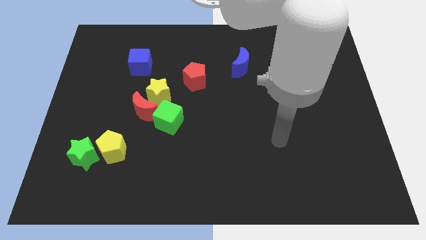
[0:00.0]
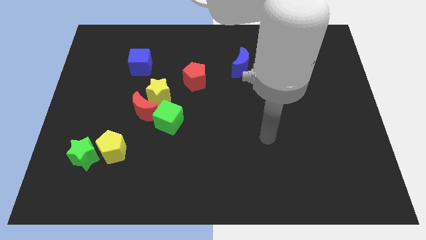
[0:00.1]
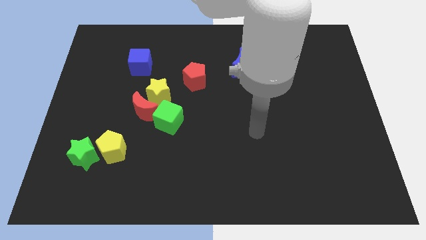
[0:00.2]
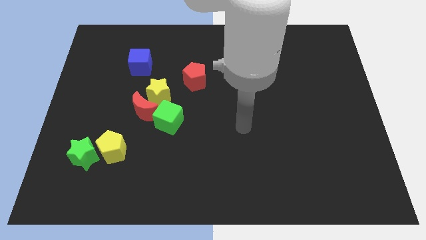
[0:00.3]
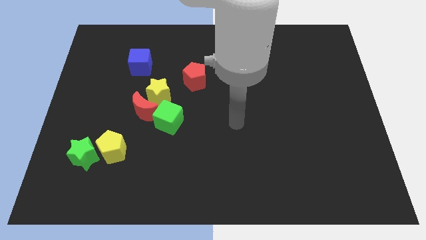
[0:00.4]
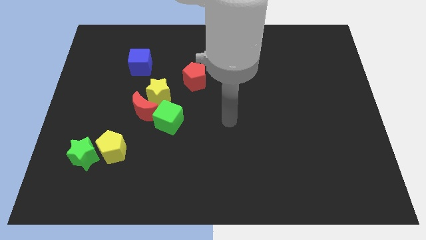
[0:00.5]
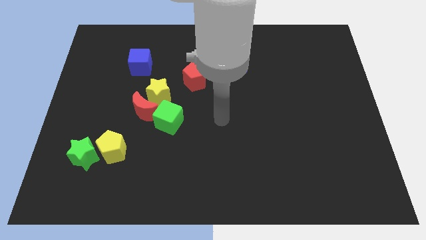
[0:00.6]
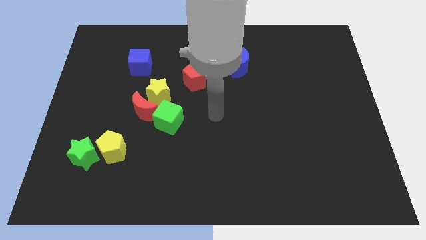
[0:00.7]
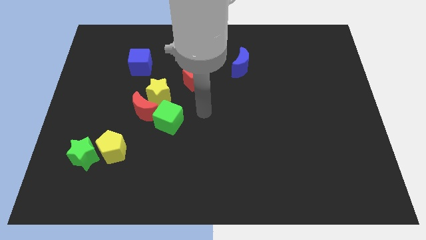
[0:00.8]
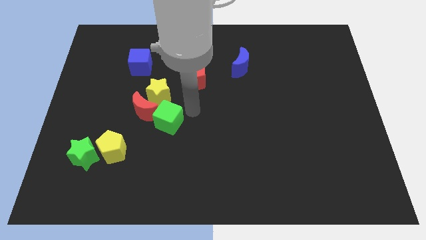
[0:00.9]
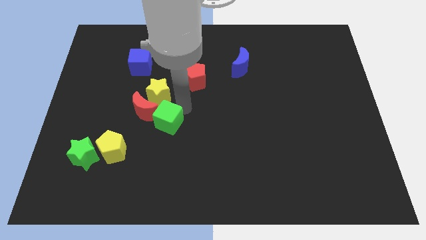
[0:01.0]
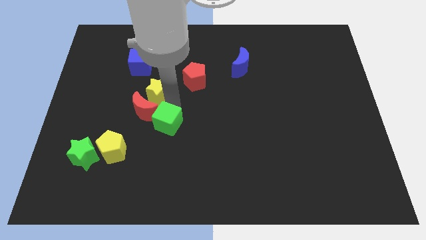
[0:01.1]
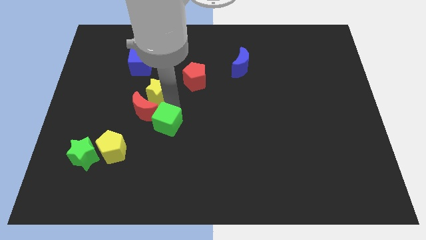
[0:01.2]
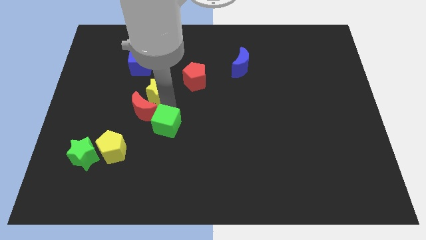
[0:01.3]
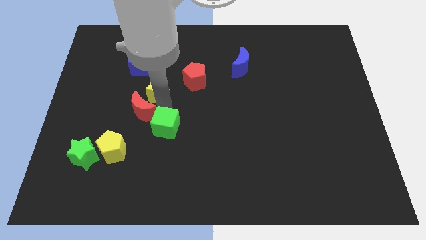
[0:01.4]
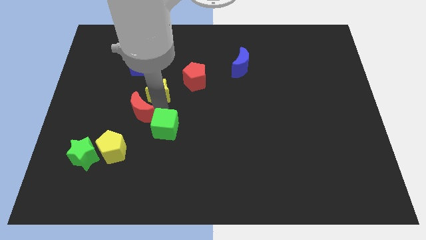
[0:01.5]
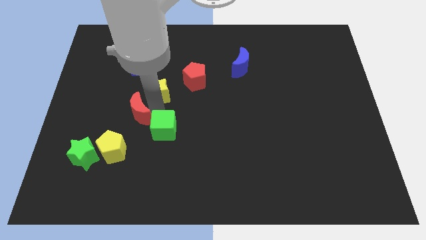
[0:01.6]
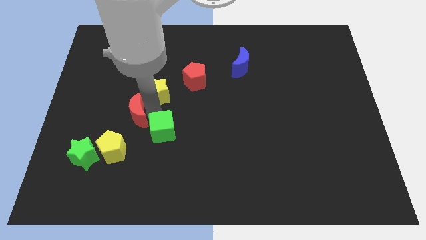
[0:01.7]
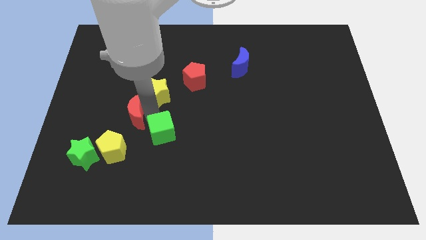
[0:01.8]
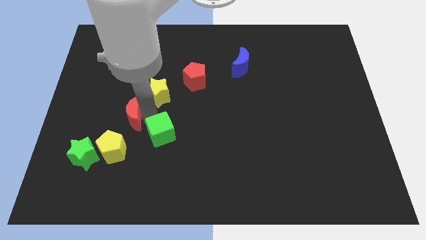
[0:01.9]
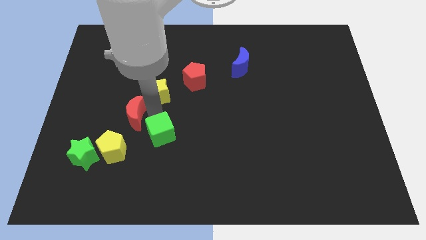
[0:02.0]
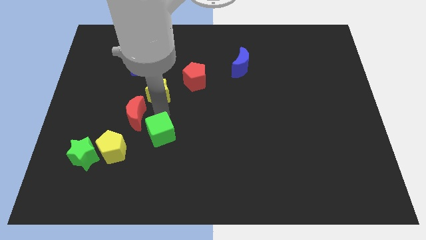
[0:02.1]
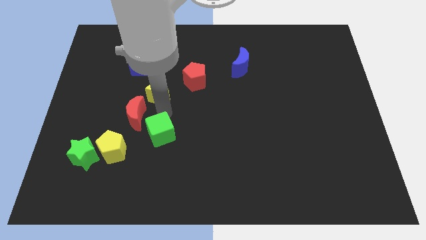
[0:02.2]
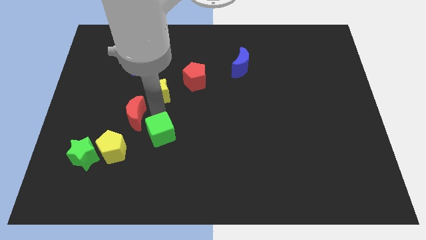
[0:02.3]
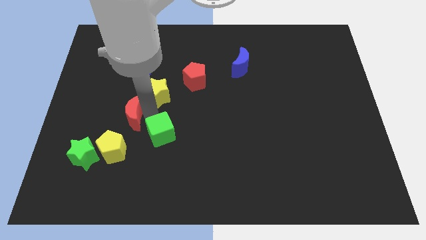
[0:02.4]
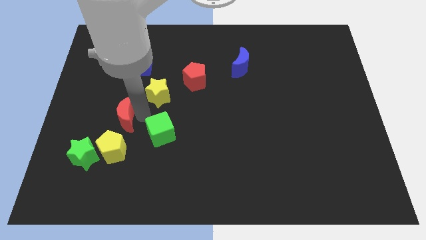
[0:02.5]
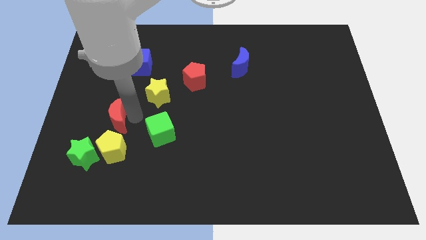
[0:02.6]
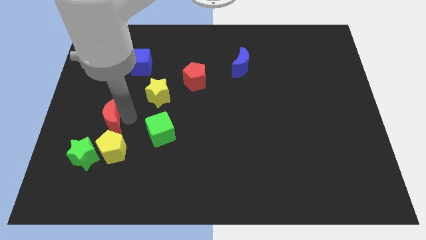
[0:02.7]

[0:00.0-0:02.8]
pull the red moon apart from the yellow star and green cube

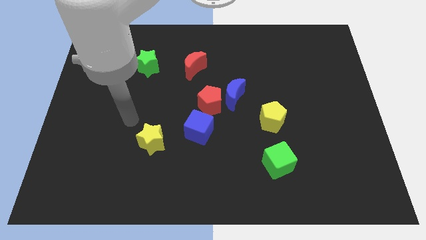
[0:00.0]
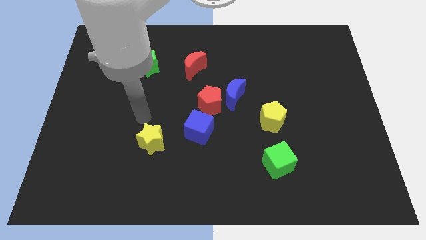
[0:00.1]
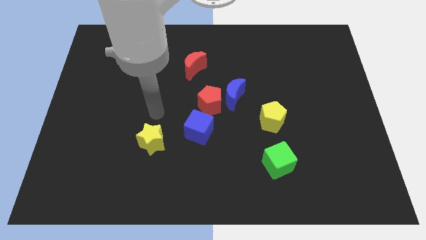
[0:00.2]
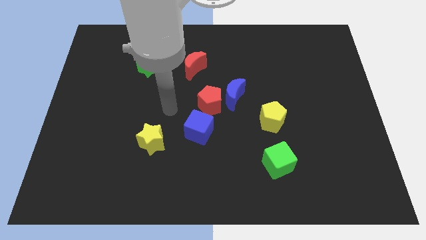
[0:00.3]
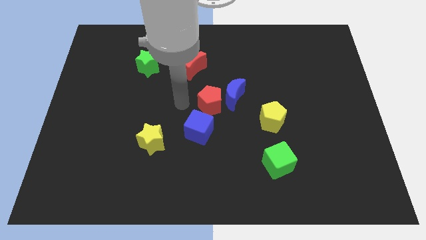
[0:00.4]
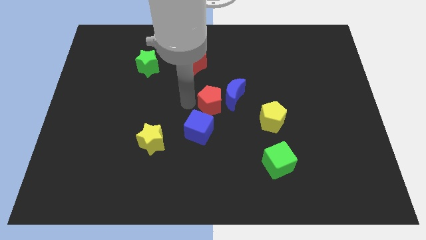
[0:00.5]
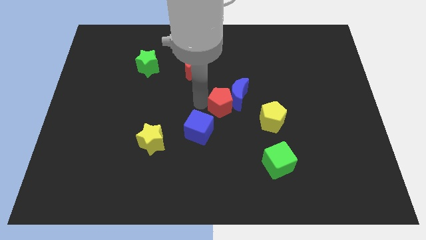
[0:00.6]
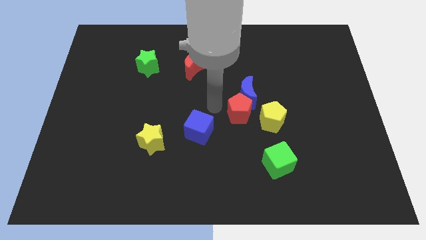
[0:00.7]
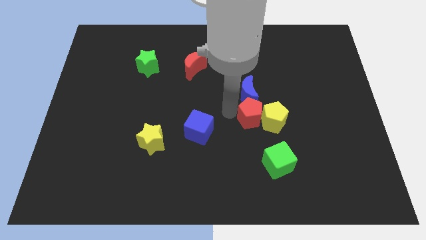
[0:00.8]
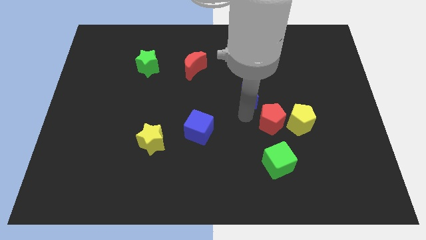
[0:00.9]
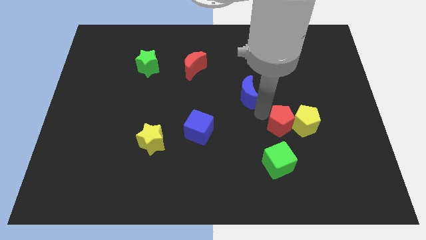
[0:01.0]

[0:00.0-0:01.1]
separate the blue moon from the red pentagon

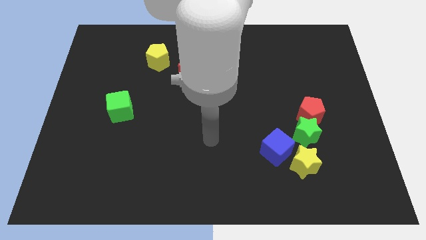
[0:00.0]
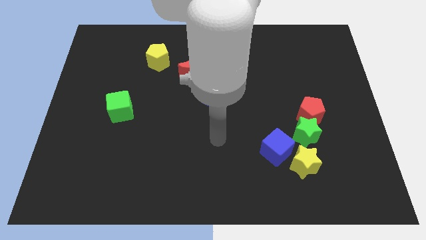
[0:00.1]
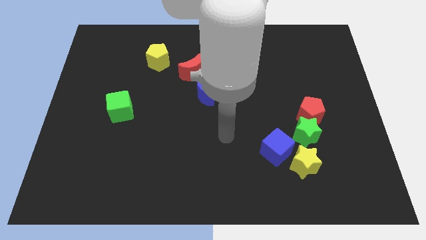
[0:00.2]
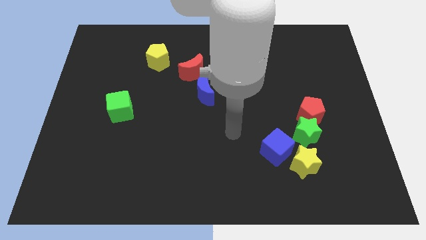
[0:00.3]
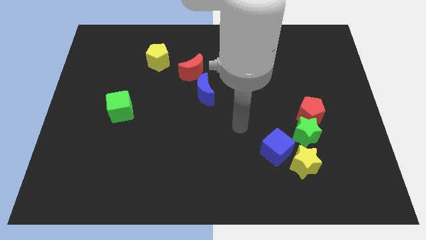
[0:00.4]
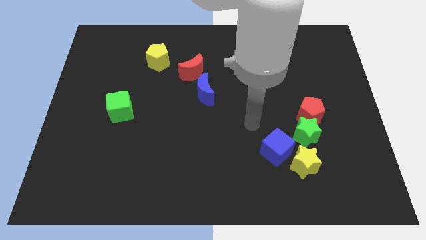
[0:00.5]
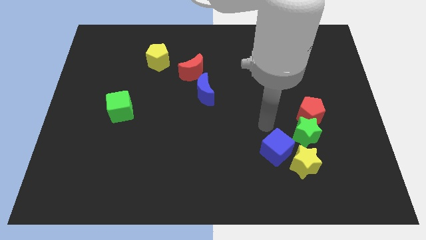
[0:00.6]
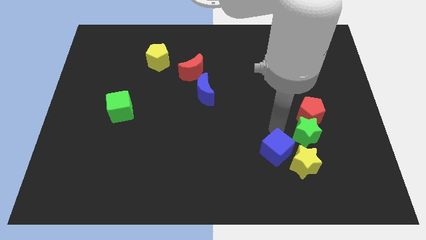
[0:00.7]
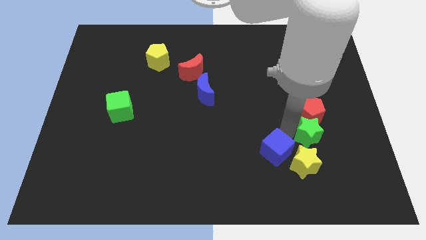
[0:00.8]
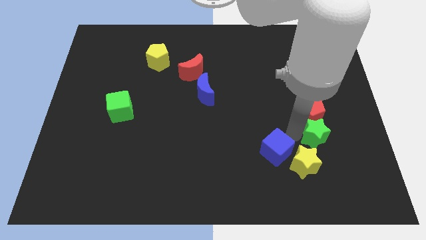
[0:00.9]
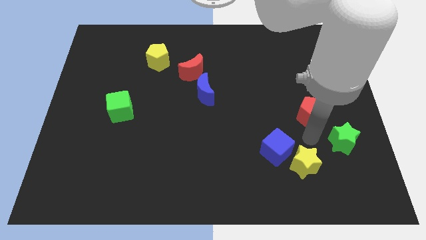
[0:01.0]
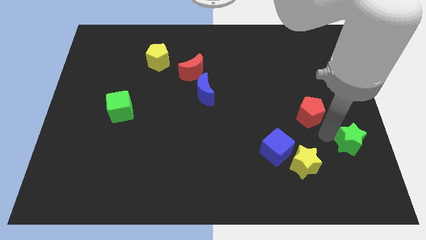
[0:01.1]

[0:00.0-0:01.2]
pull the red pentagon apart from the green star

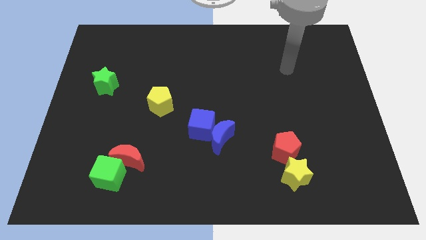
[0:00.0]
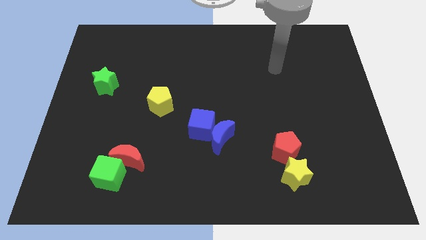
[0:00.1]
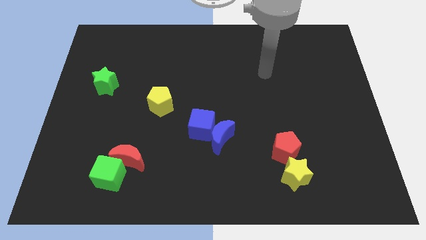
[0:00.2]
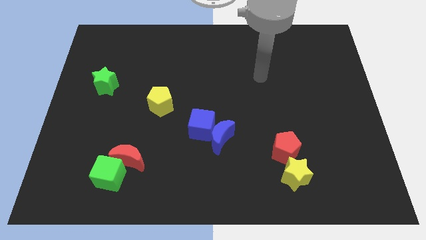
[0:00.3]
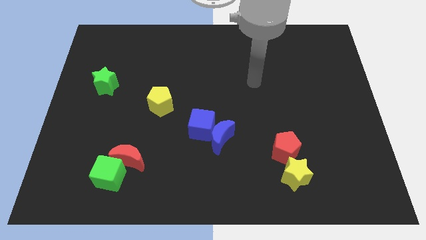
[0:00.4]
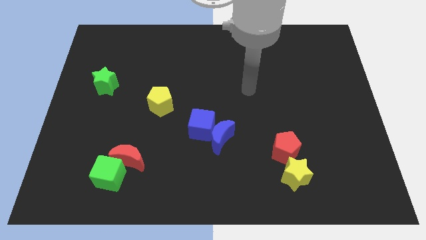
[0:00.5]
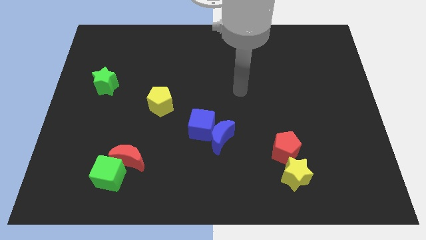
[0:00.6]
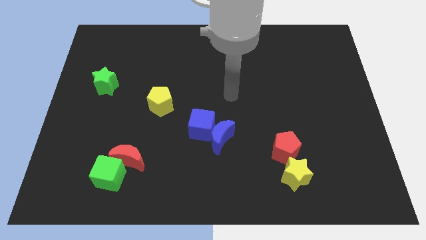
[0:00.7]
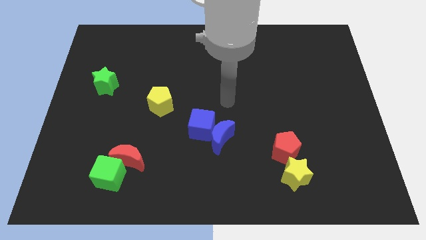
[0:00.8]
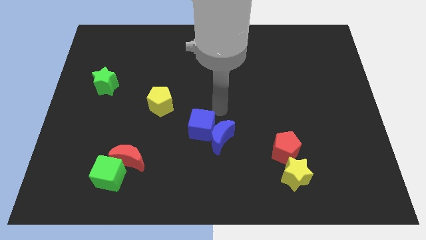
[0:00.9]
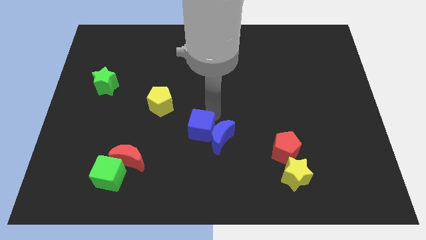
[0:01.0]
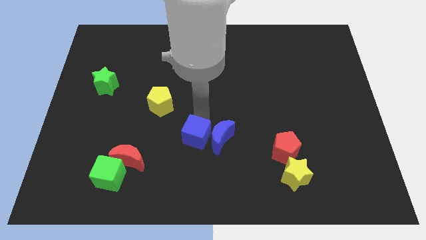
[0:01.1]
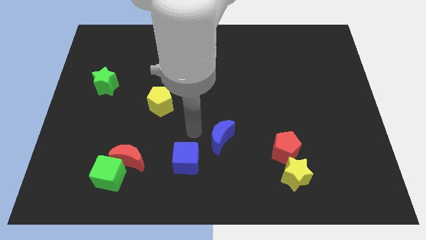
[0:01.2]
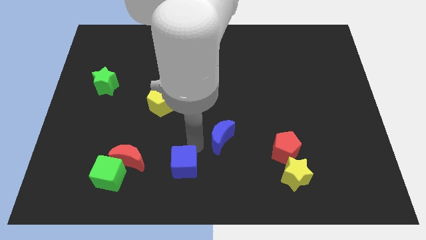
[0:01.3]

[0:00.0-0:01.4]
separate the blue moon from the blue cube

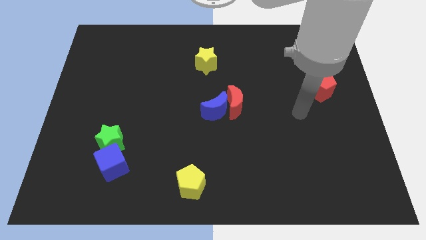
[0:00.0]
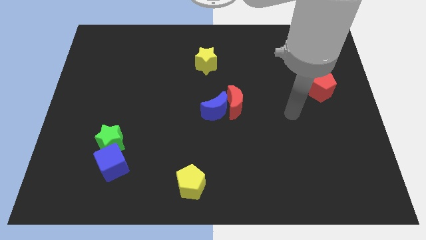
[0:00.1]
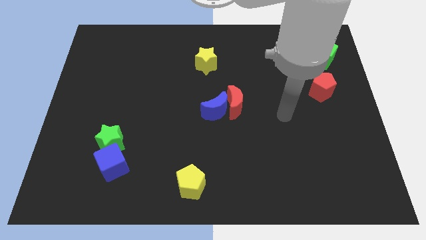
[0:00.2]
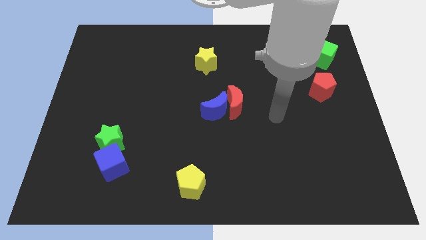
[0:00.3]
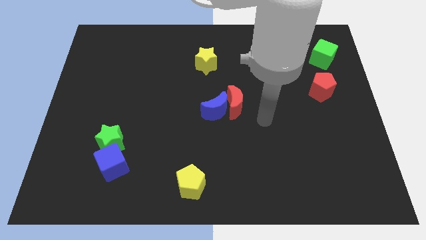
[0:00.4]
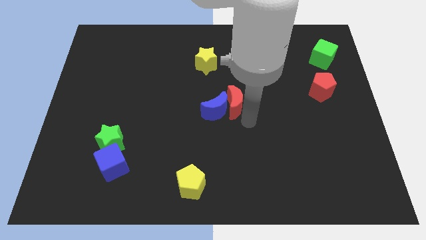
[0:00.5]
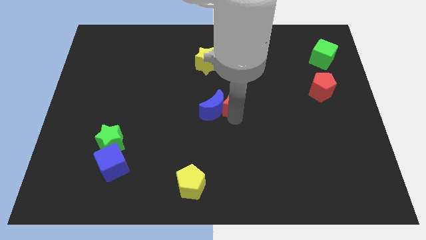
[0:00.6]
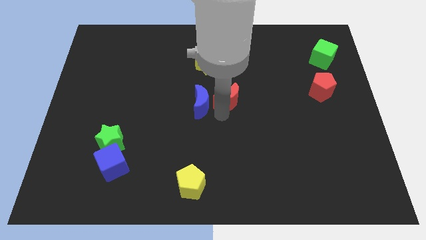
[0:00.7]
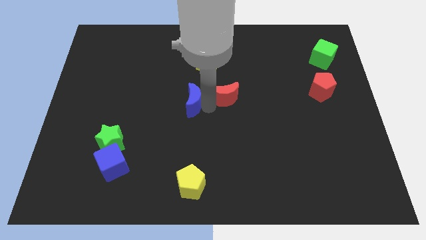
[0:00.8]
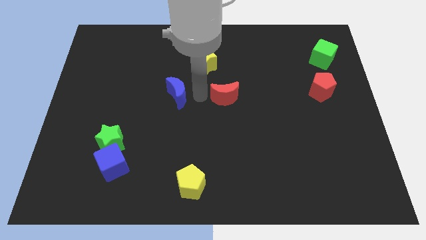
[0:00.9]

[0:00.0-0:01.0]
move the red moon away from the blue moon

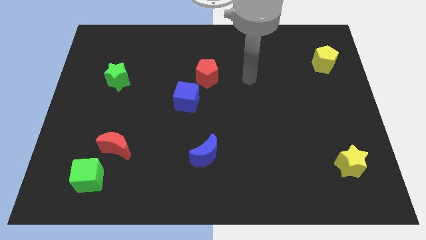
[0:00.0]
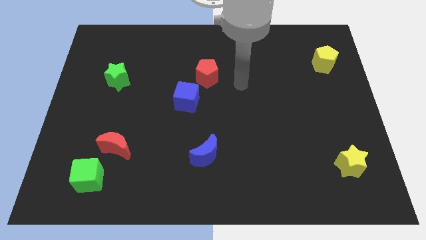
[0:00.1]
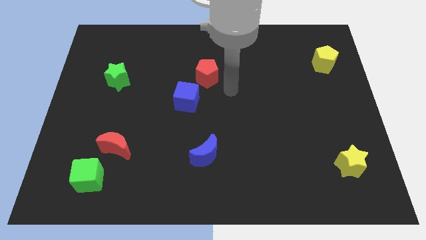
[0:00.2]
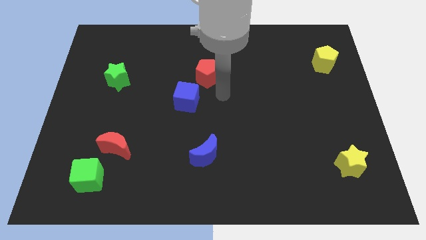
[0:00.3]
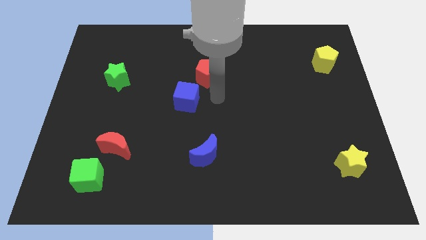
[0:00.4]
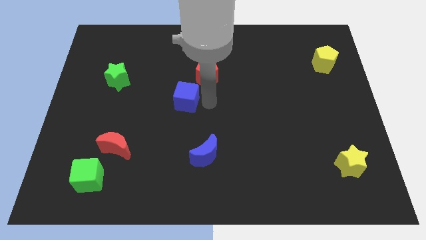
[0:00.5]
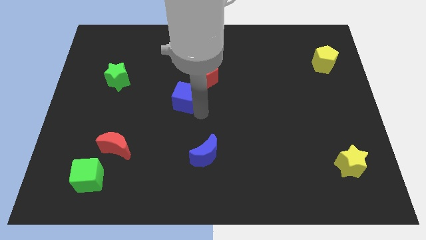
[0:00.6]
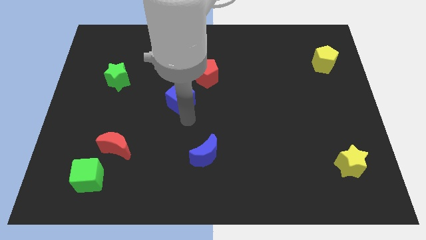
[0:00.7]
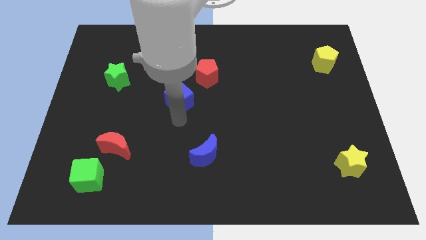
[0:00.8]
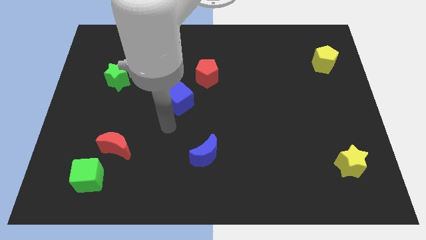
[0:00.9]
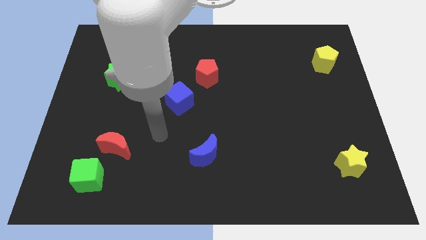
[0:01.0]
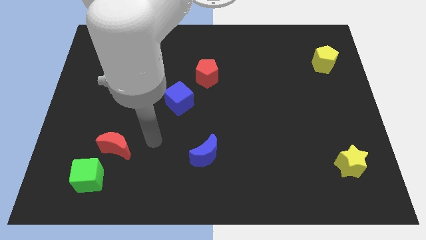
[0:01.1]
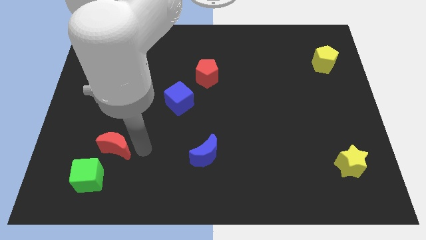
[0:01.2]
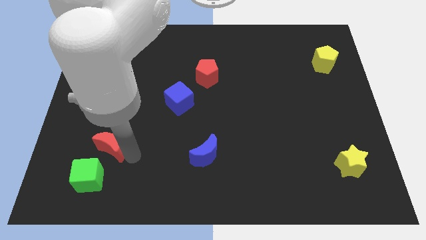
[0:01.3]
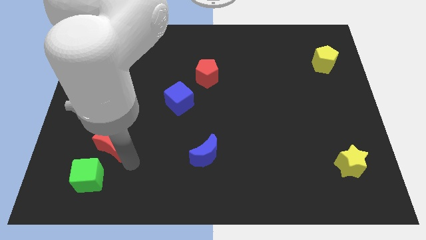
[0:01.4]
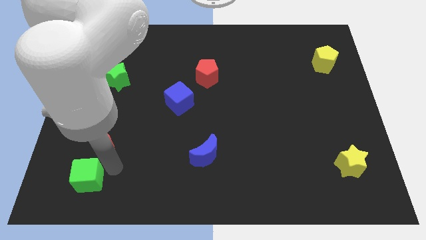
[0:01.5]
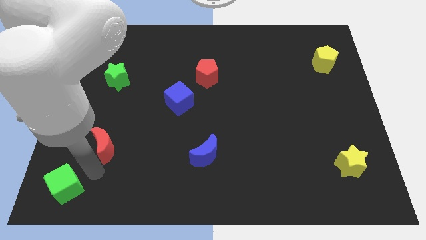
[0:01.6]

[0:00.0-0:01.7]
separate the red moon from the green cube
